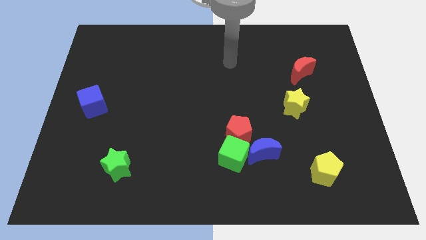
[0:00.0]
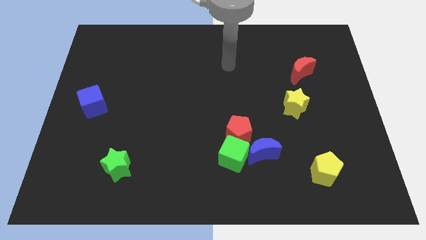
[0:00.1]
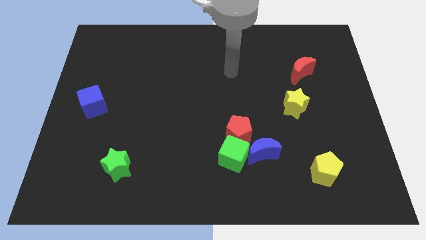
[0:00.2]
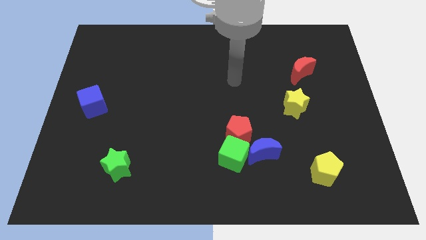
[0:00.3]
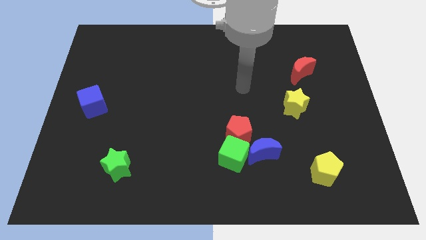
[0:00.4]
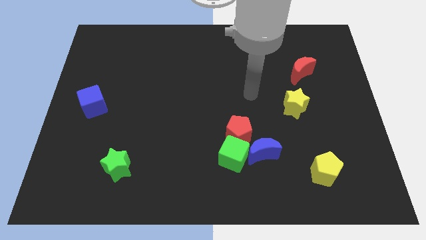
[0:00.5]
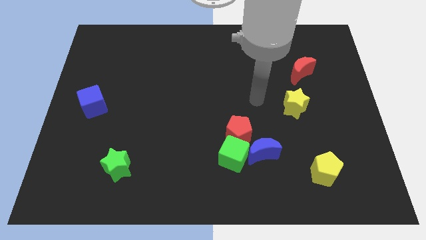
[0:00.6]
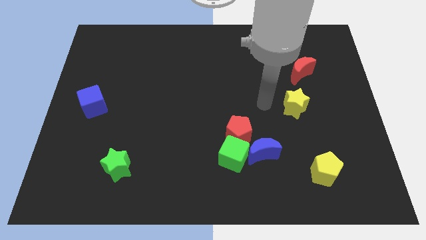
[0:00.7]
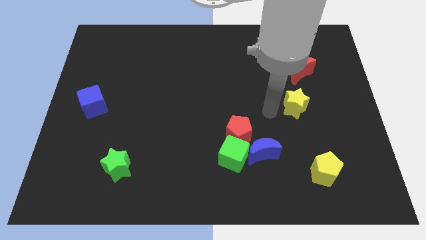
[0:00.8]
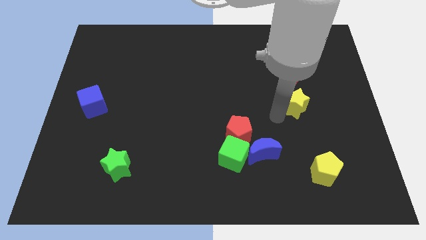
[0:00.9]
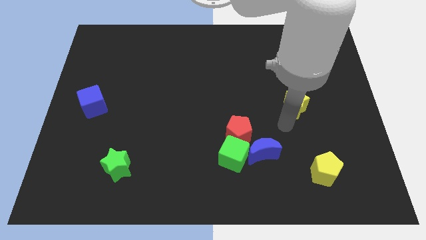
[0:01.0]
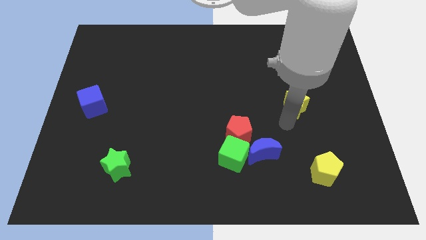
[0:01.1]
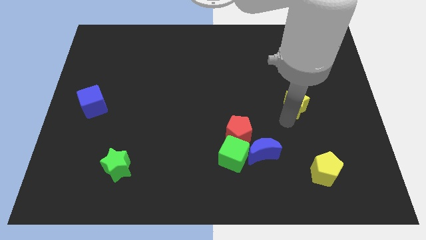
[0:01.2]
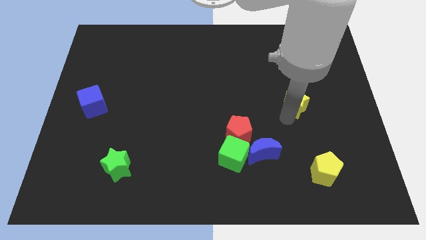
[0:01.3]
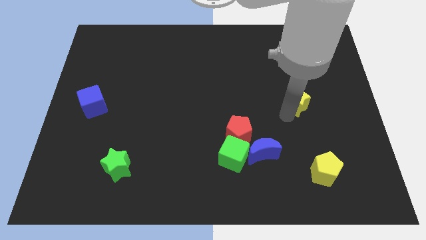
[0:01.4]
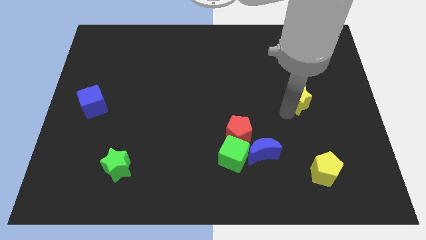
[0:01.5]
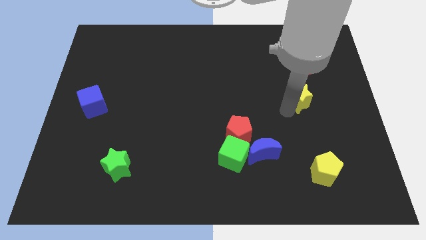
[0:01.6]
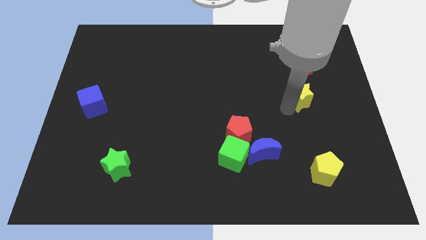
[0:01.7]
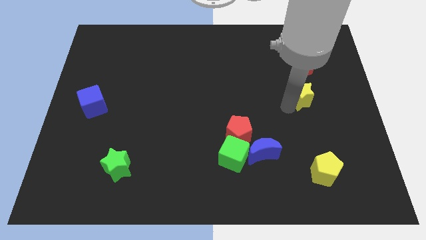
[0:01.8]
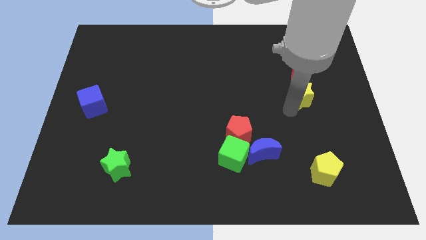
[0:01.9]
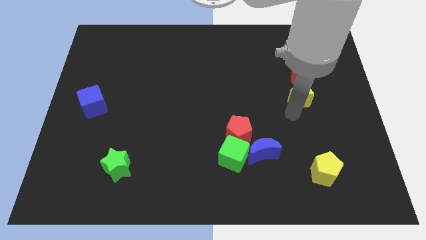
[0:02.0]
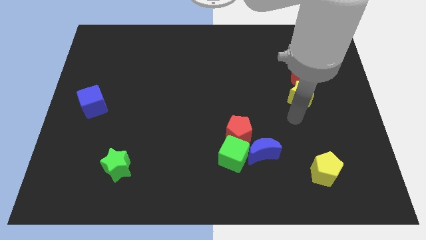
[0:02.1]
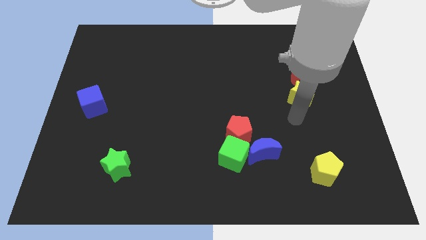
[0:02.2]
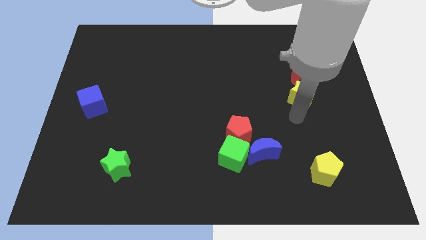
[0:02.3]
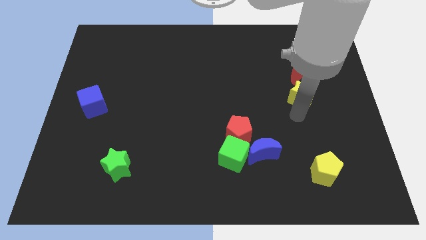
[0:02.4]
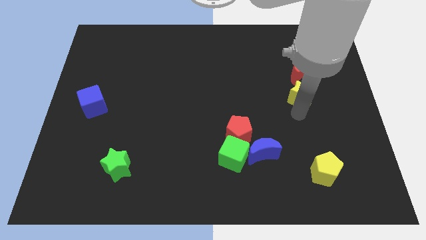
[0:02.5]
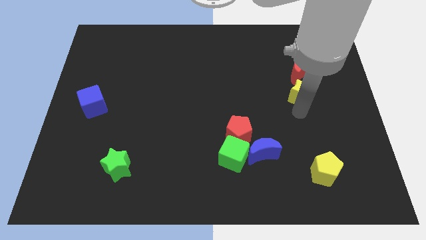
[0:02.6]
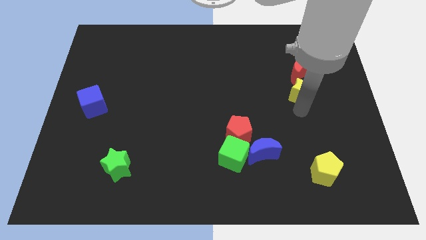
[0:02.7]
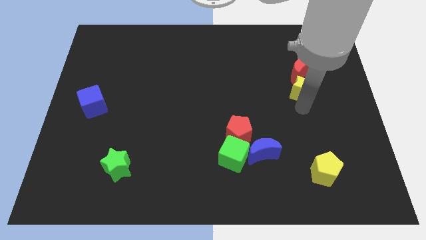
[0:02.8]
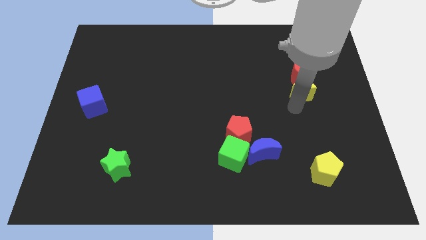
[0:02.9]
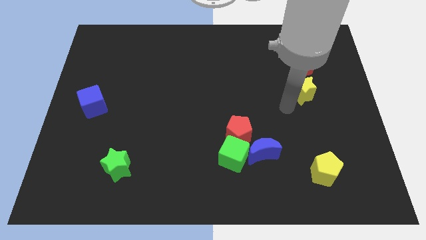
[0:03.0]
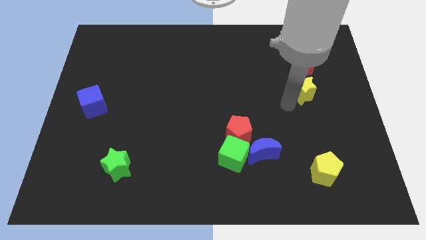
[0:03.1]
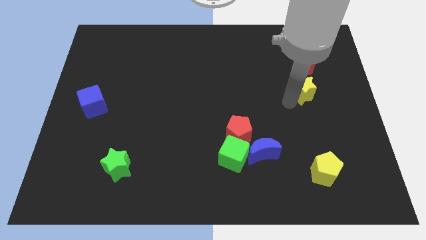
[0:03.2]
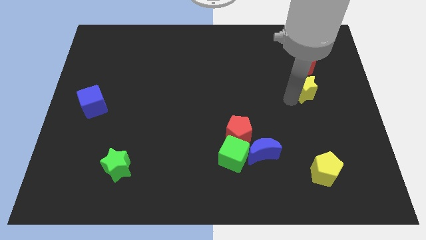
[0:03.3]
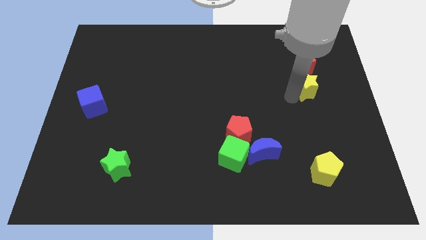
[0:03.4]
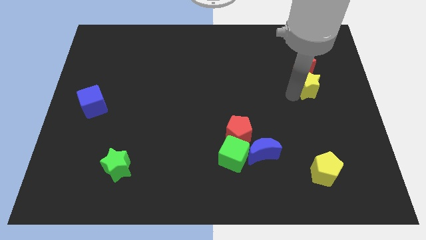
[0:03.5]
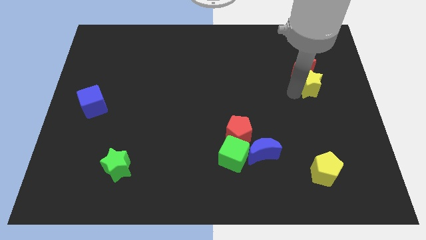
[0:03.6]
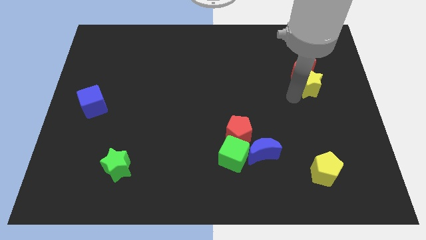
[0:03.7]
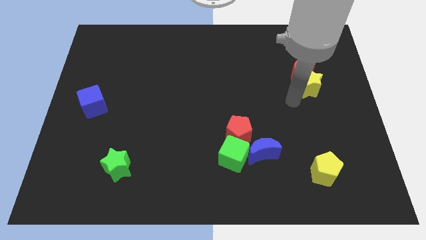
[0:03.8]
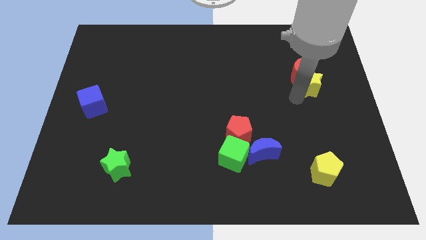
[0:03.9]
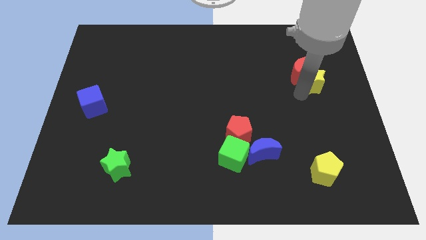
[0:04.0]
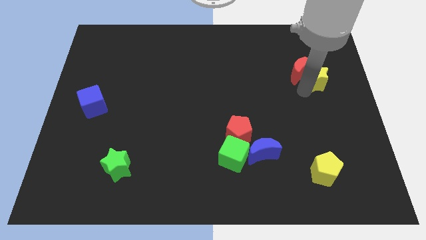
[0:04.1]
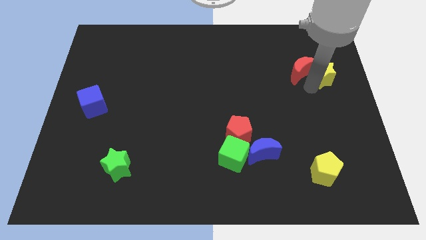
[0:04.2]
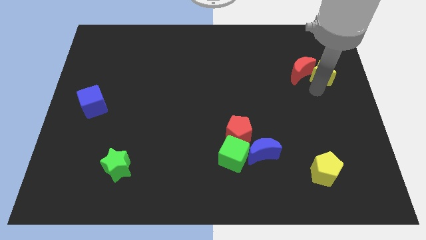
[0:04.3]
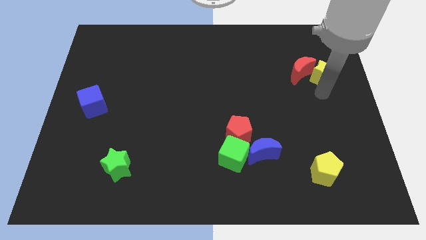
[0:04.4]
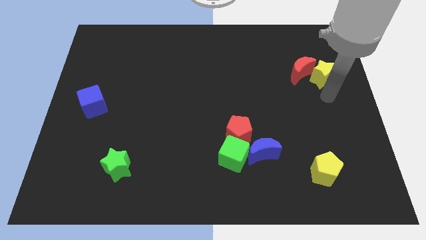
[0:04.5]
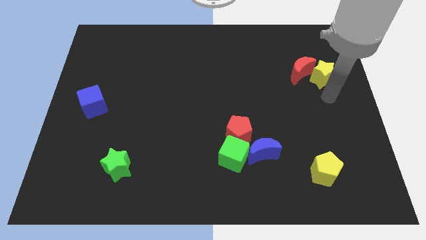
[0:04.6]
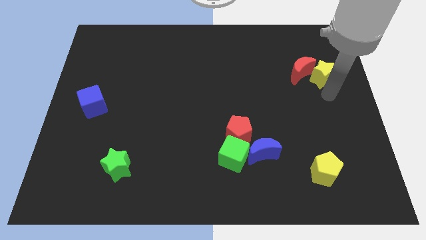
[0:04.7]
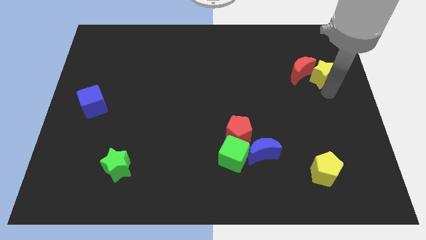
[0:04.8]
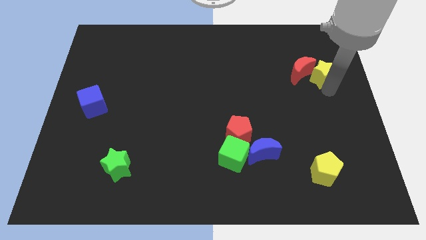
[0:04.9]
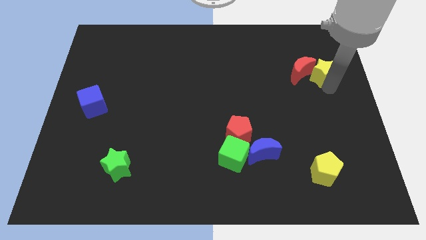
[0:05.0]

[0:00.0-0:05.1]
slide the yellow star diagonally up and to the right of the red moon

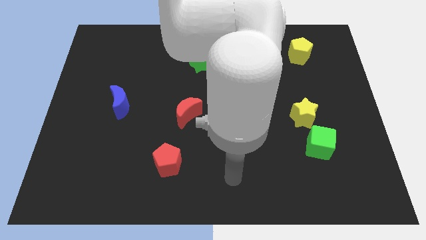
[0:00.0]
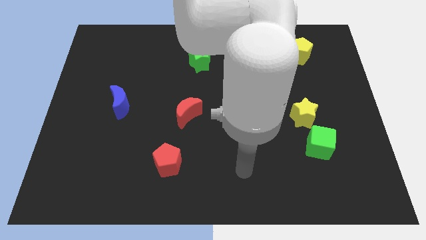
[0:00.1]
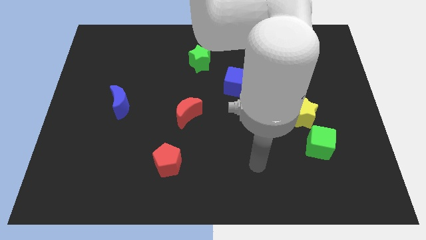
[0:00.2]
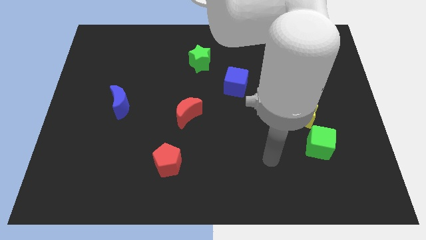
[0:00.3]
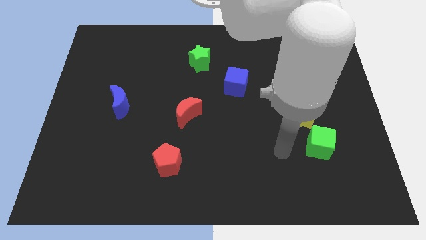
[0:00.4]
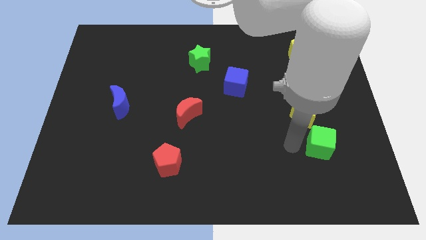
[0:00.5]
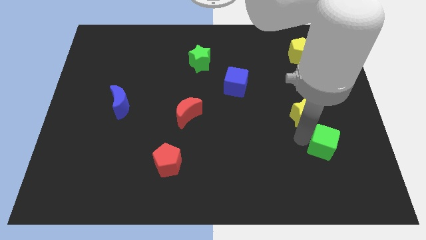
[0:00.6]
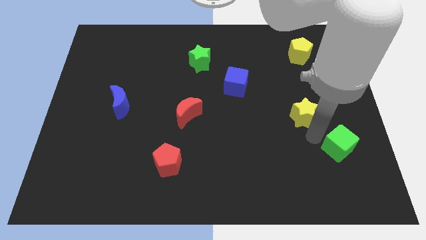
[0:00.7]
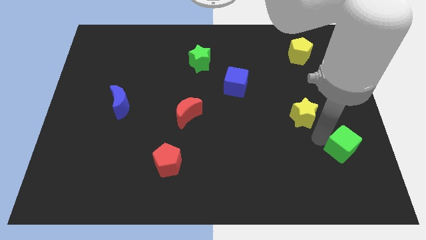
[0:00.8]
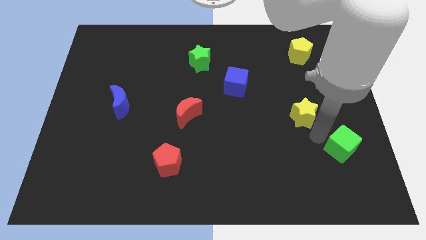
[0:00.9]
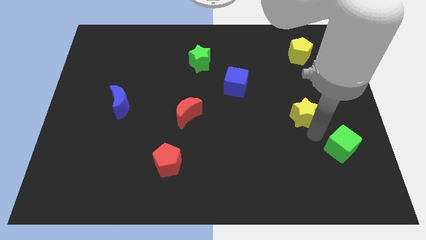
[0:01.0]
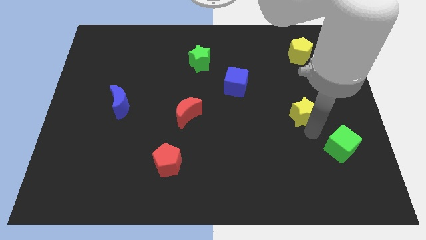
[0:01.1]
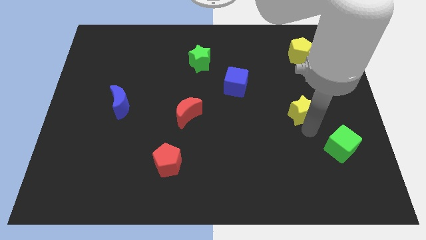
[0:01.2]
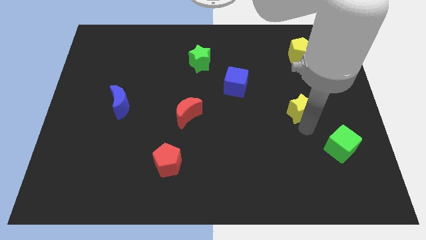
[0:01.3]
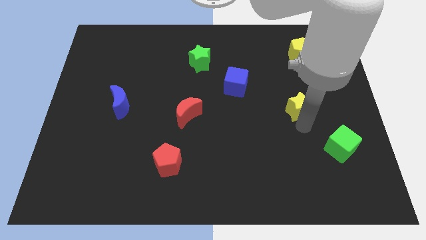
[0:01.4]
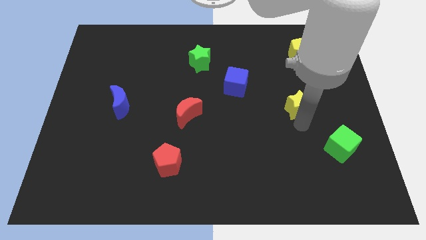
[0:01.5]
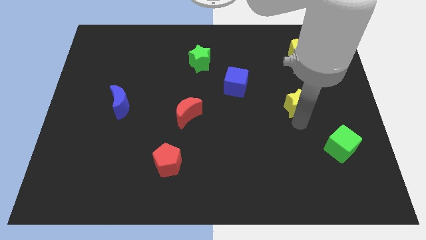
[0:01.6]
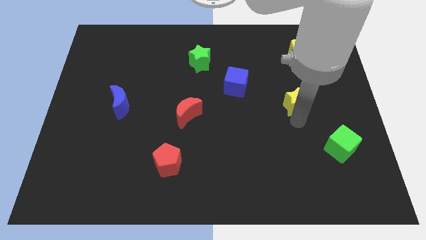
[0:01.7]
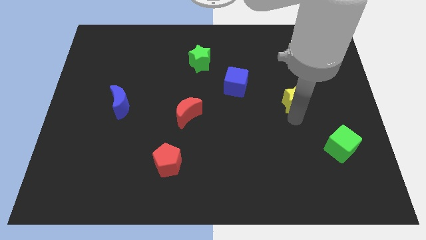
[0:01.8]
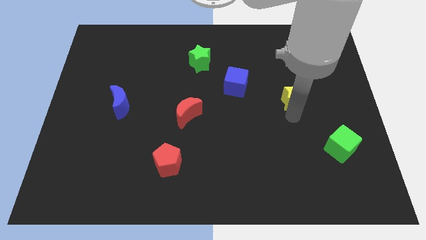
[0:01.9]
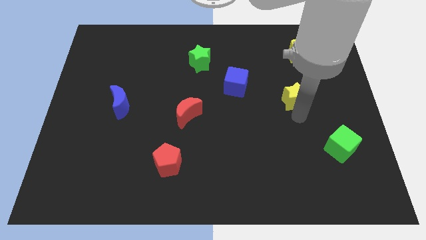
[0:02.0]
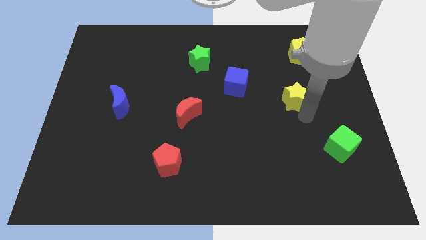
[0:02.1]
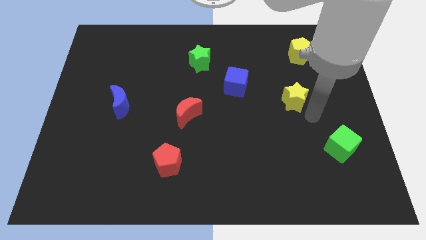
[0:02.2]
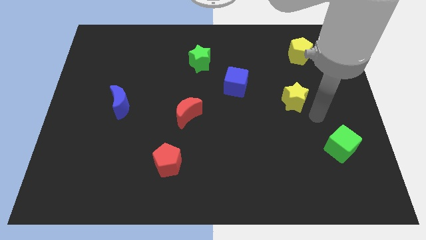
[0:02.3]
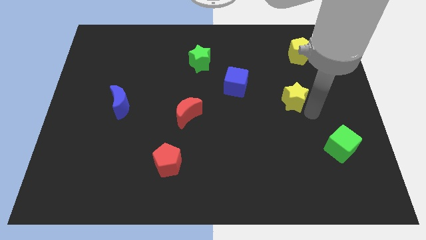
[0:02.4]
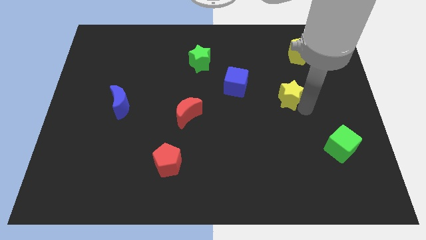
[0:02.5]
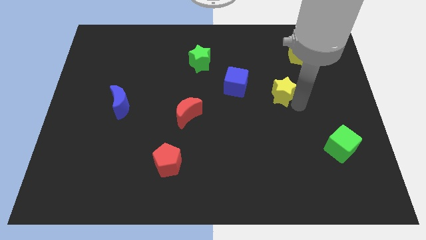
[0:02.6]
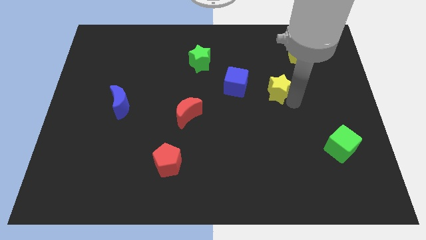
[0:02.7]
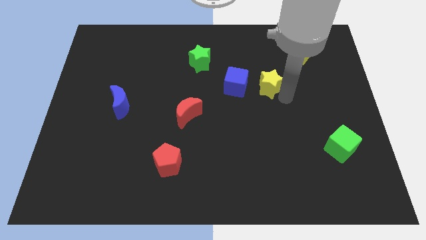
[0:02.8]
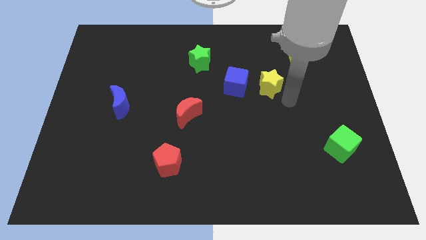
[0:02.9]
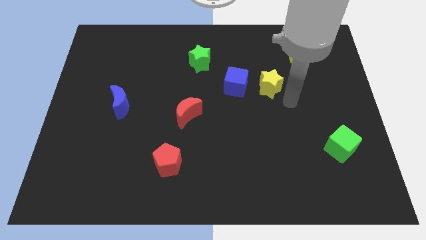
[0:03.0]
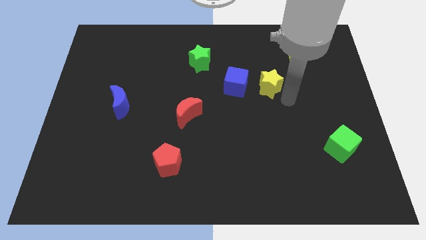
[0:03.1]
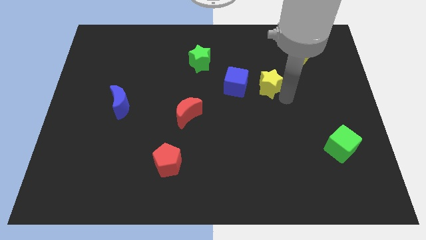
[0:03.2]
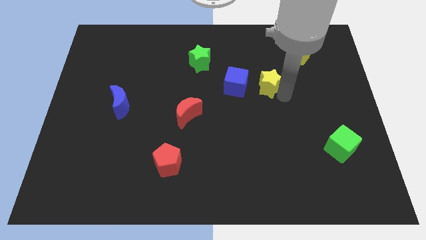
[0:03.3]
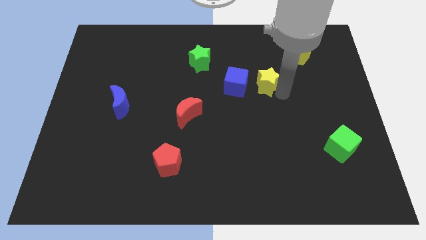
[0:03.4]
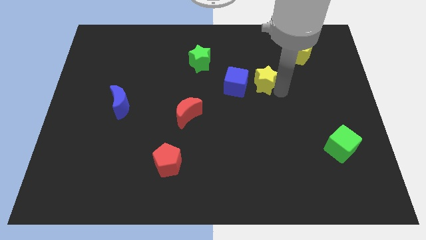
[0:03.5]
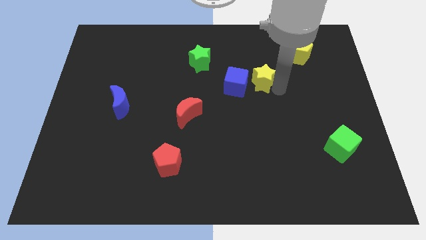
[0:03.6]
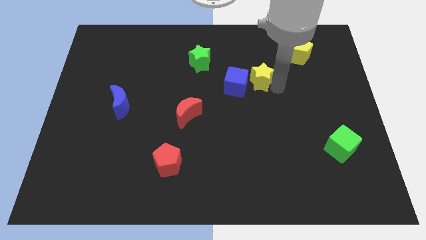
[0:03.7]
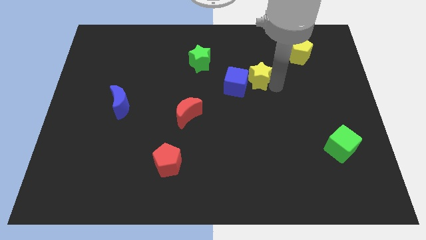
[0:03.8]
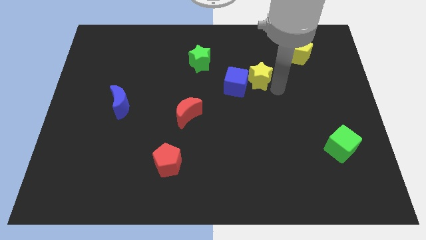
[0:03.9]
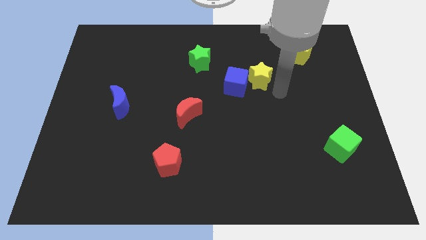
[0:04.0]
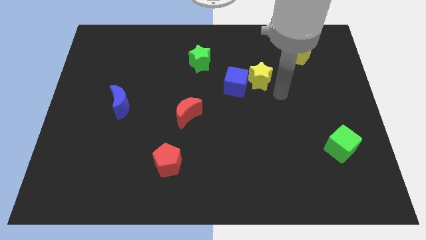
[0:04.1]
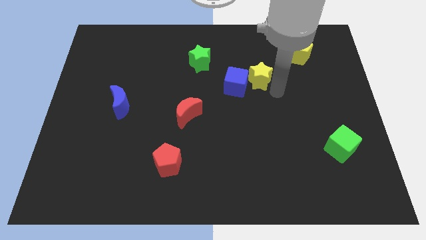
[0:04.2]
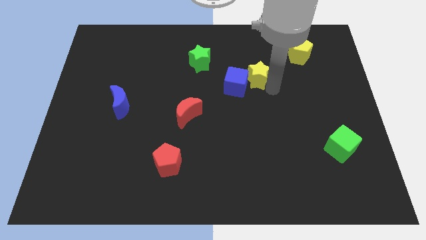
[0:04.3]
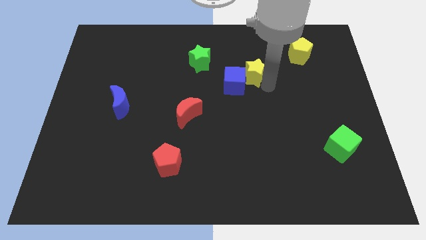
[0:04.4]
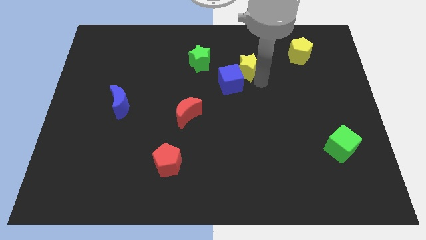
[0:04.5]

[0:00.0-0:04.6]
push the yellow star to the top side of the blue cube
